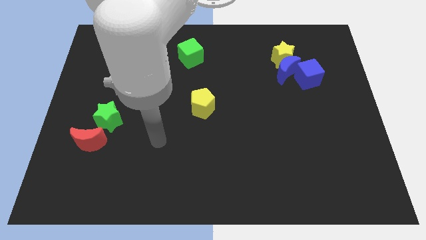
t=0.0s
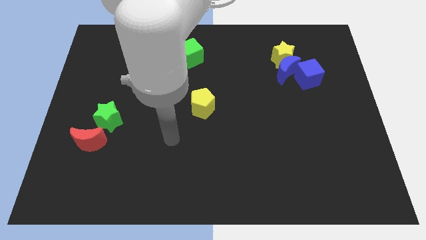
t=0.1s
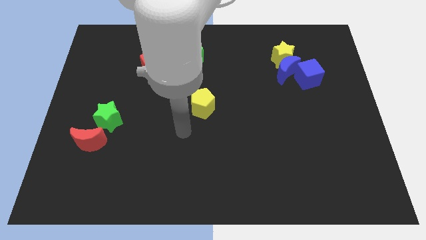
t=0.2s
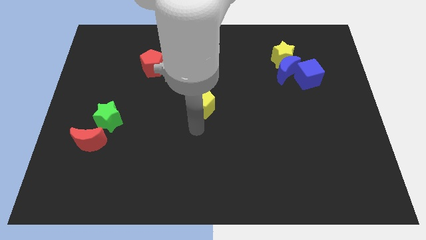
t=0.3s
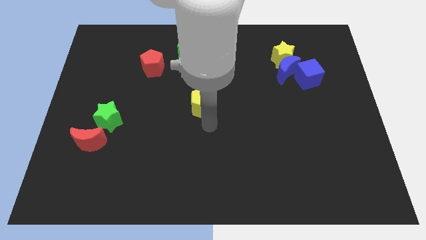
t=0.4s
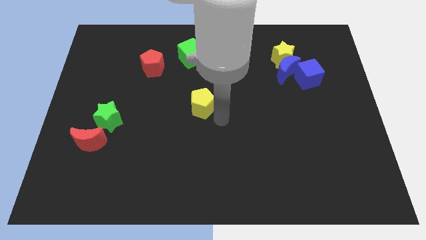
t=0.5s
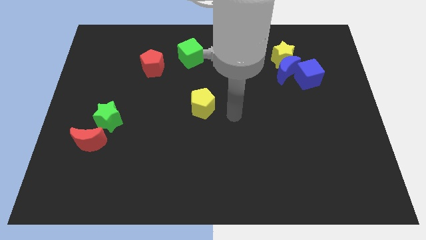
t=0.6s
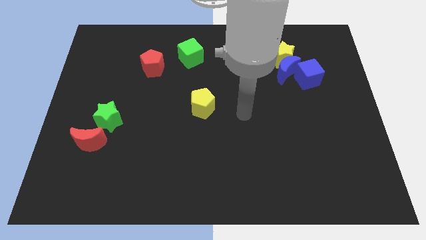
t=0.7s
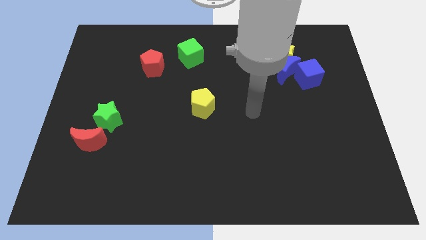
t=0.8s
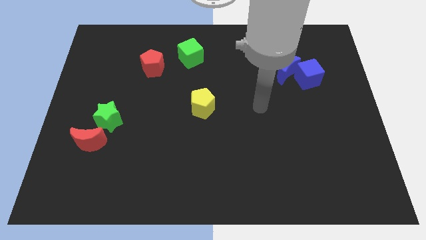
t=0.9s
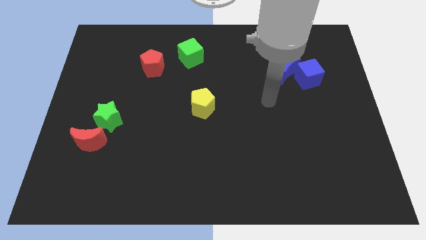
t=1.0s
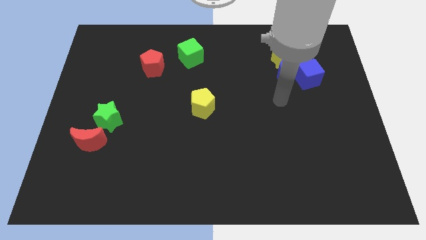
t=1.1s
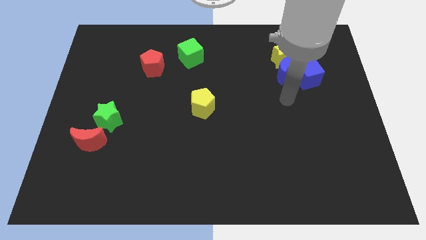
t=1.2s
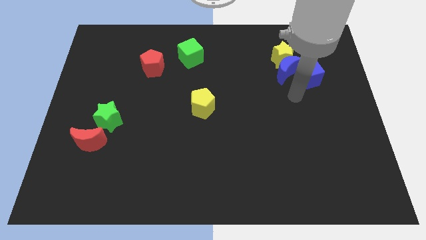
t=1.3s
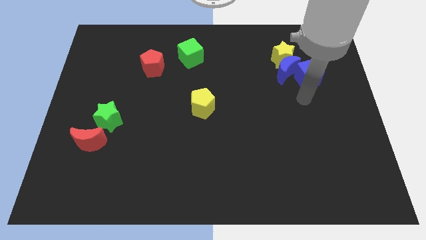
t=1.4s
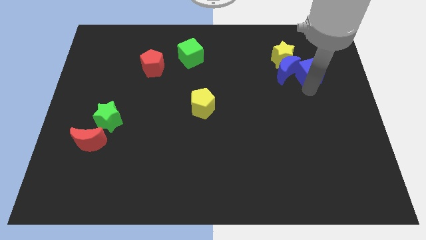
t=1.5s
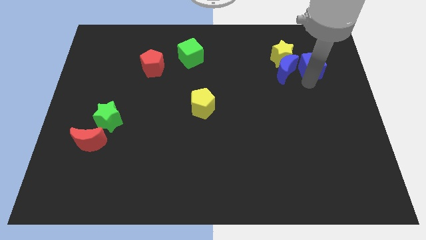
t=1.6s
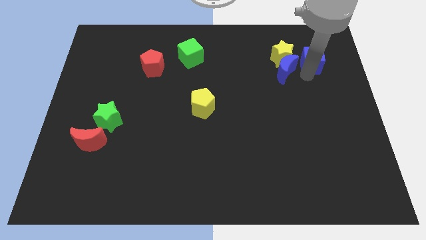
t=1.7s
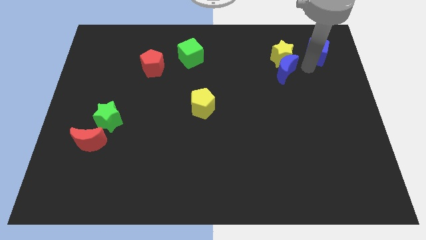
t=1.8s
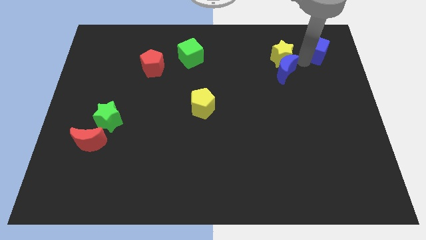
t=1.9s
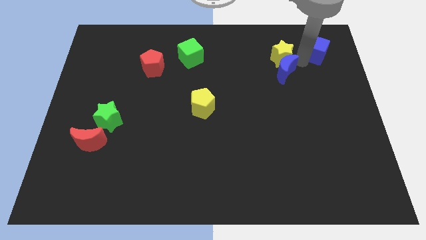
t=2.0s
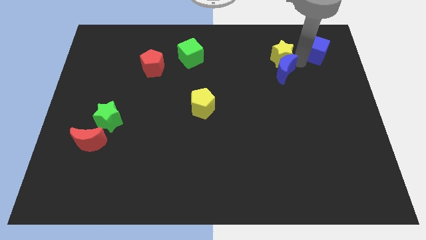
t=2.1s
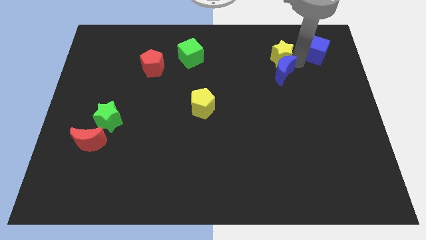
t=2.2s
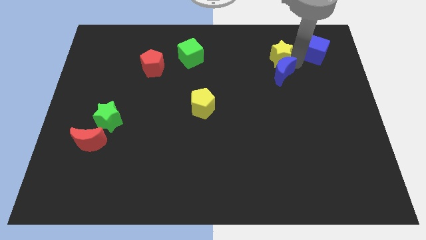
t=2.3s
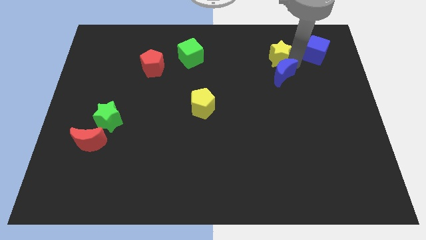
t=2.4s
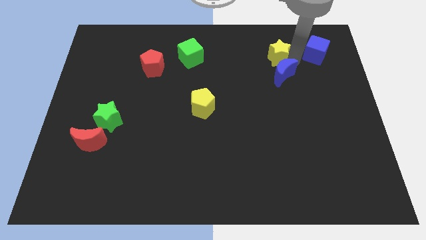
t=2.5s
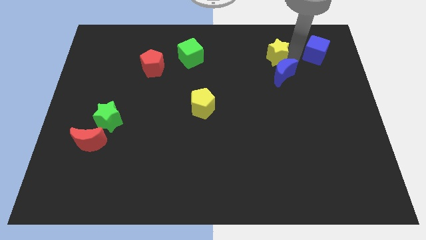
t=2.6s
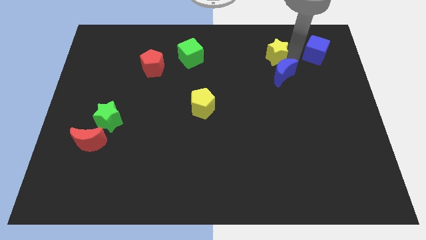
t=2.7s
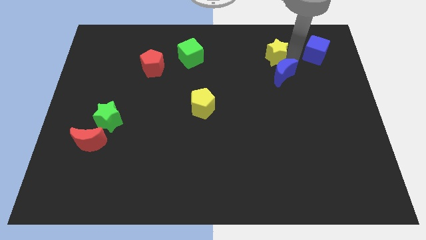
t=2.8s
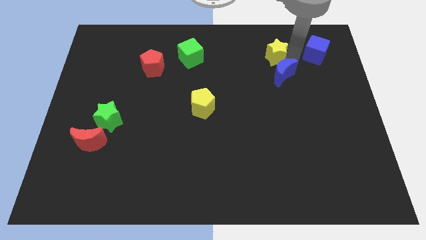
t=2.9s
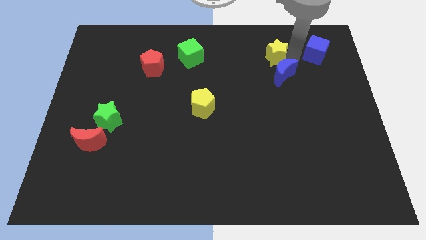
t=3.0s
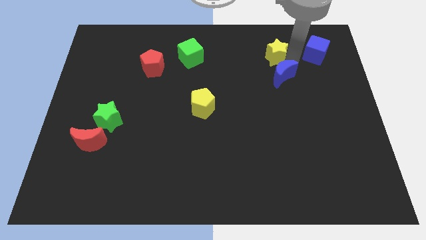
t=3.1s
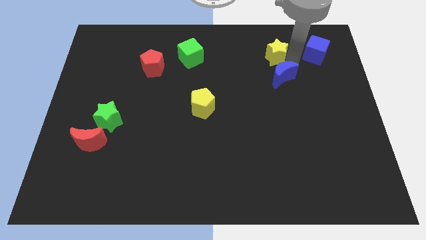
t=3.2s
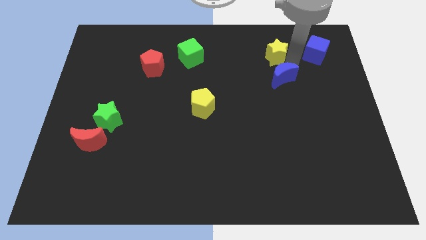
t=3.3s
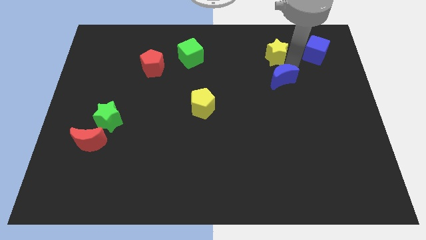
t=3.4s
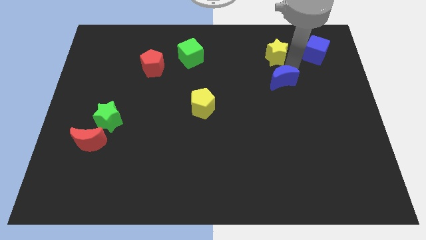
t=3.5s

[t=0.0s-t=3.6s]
move the blue moon away from the yellow star and blue cube

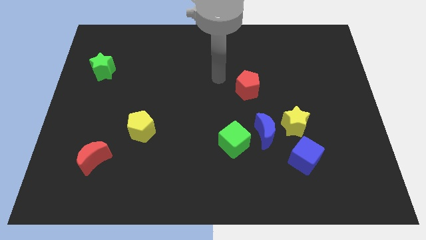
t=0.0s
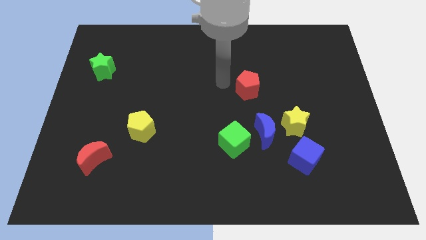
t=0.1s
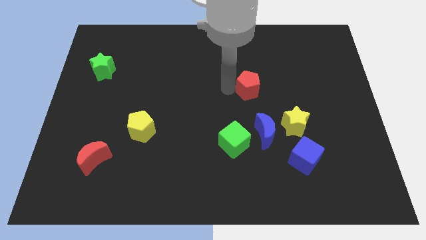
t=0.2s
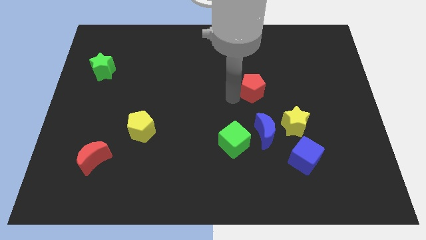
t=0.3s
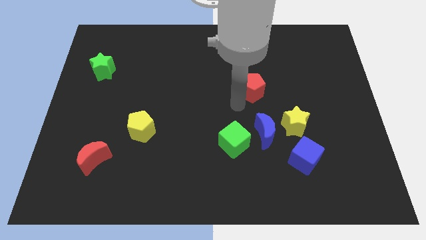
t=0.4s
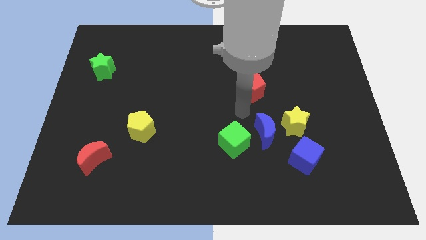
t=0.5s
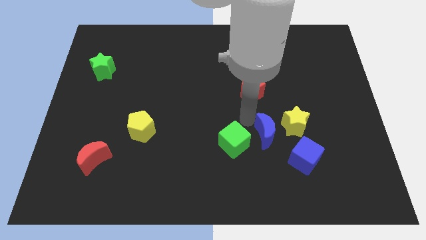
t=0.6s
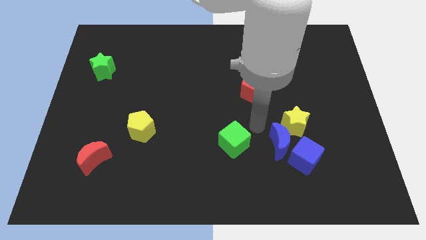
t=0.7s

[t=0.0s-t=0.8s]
move the green cube away from the blue moon

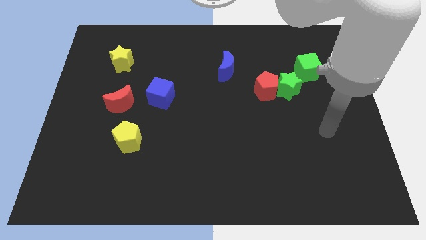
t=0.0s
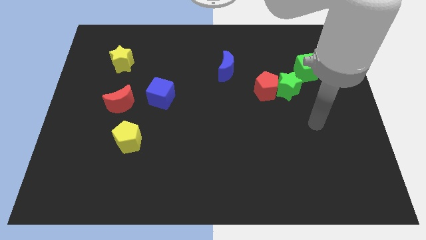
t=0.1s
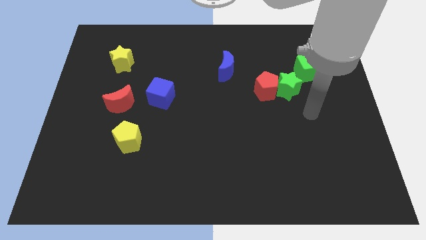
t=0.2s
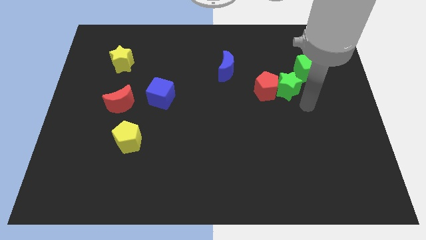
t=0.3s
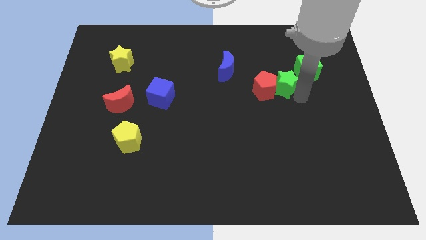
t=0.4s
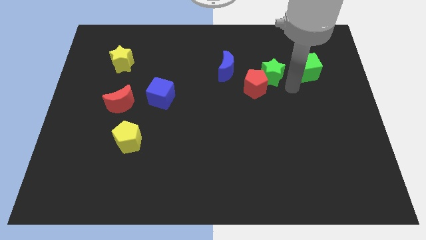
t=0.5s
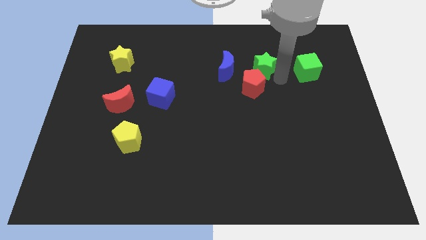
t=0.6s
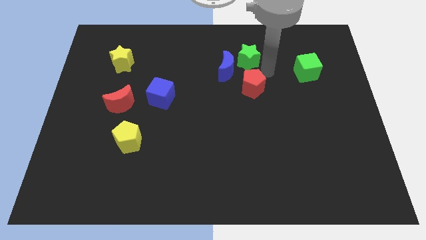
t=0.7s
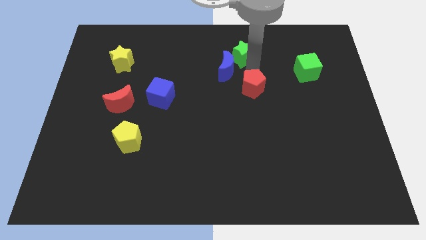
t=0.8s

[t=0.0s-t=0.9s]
move the red pentagon away from the green star

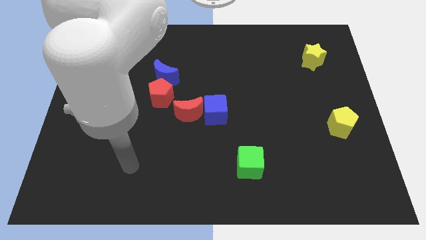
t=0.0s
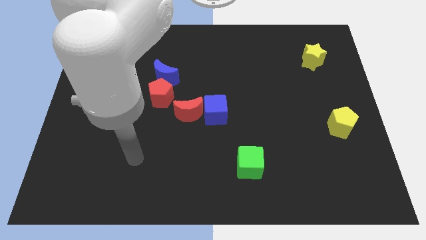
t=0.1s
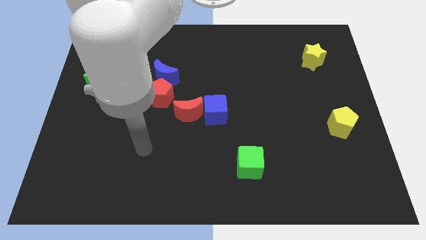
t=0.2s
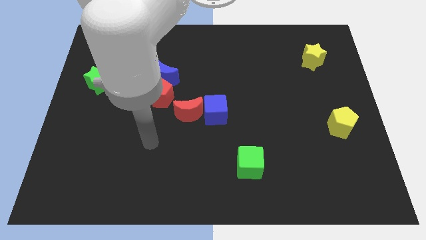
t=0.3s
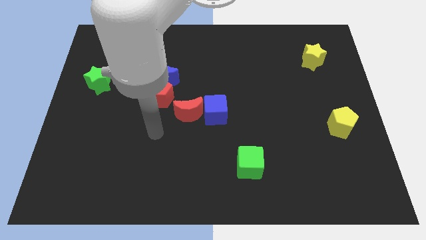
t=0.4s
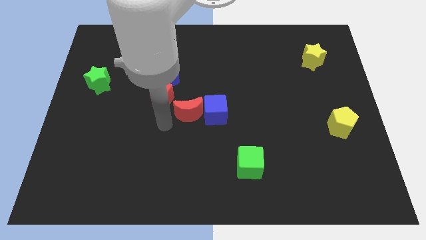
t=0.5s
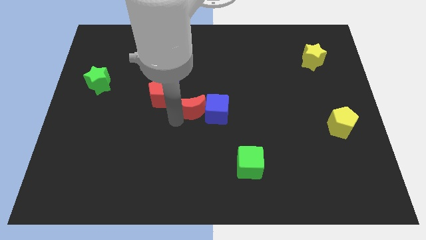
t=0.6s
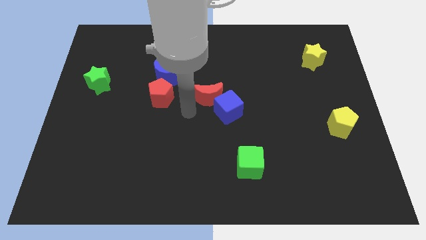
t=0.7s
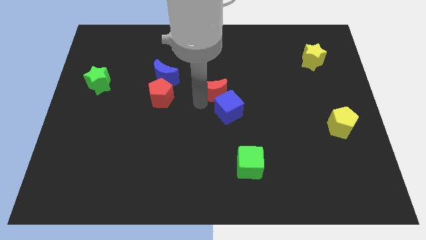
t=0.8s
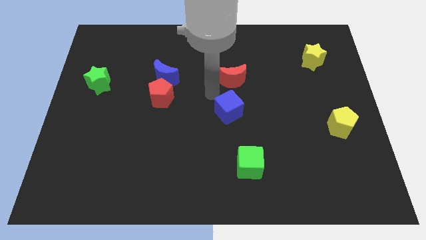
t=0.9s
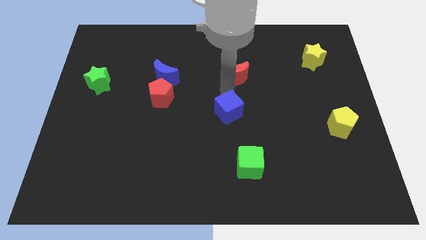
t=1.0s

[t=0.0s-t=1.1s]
separate the blue cube from the red moon

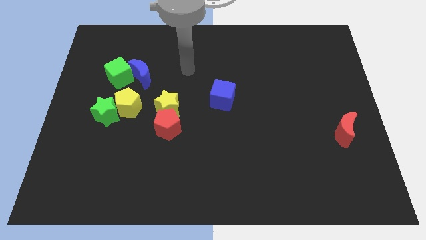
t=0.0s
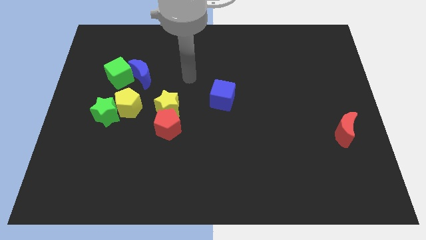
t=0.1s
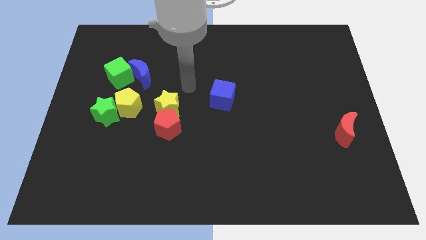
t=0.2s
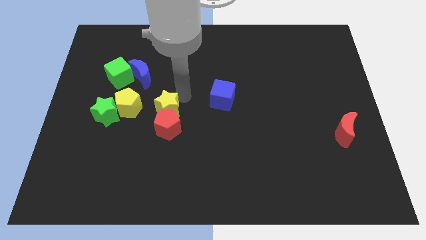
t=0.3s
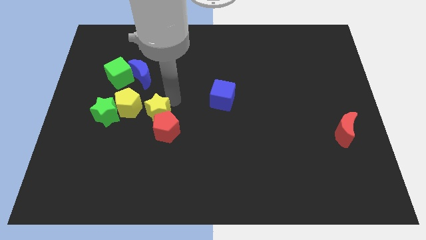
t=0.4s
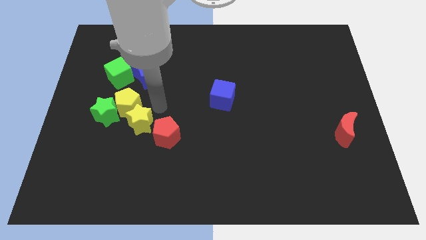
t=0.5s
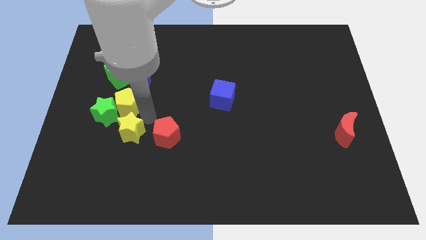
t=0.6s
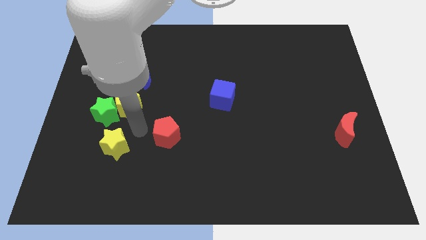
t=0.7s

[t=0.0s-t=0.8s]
move the red pentagon away from the yellow star

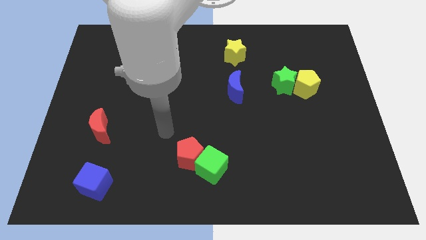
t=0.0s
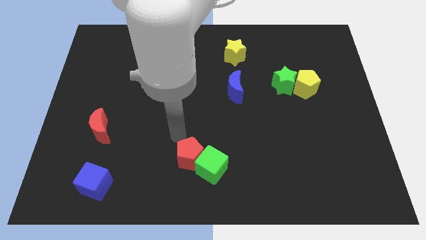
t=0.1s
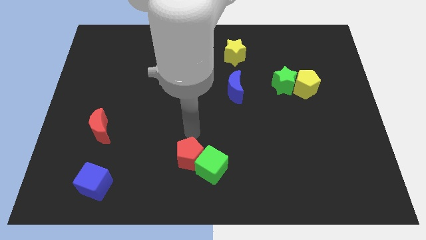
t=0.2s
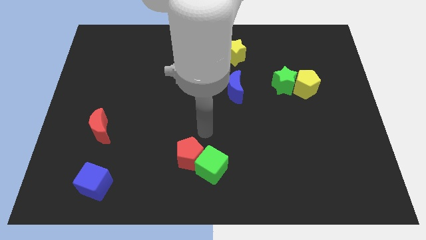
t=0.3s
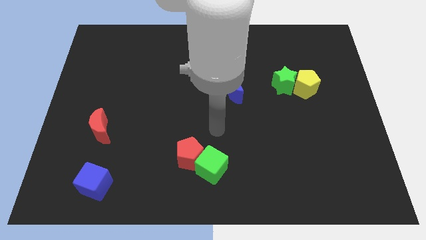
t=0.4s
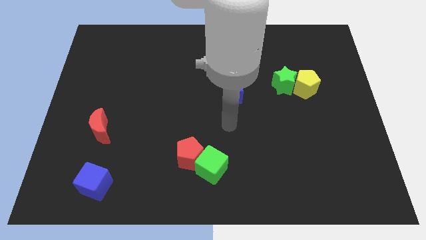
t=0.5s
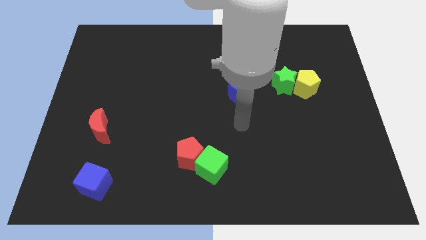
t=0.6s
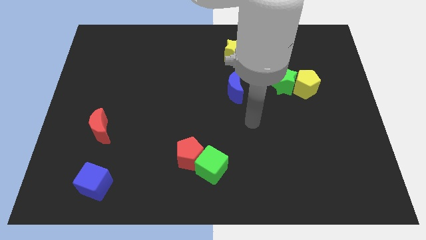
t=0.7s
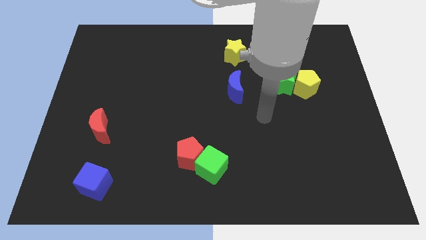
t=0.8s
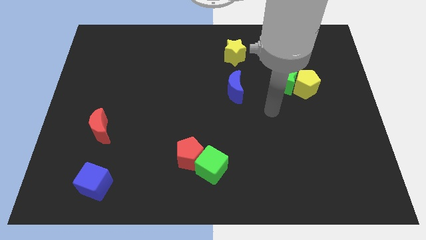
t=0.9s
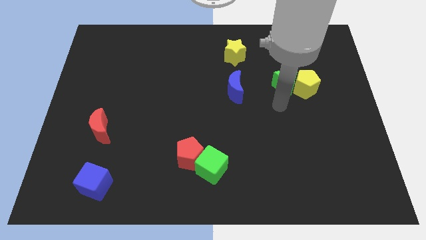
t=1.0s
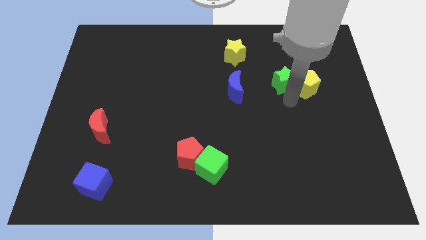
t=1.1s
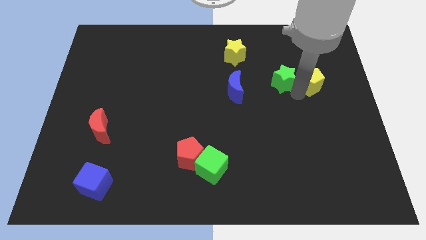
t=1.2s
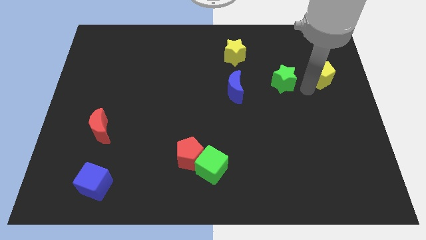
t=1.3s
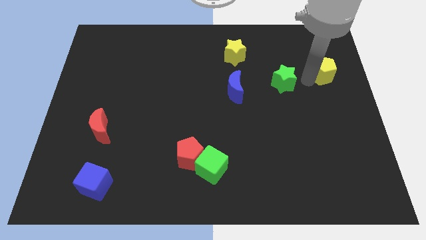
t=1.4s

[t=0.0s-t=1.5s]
separate the green star from the yellow pentagon

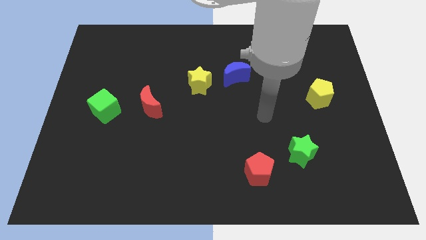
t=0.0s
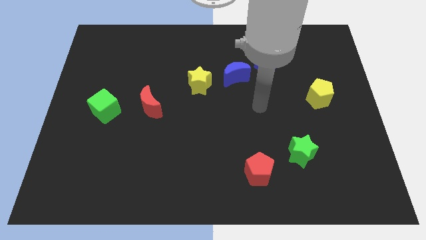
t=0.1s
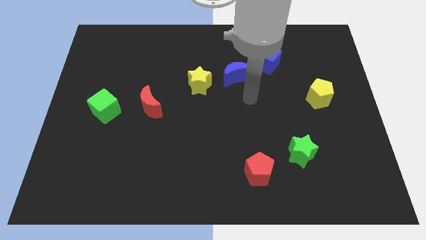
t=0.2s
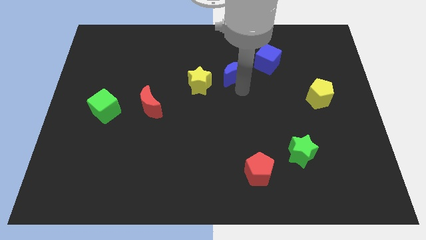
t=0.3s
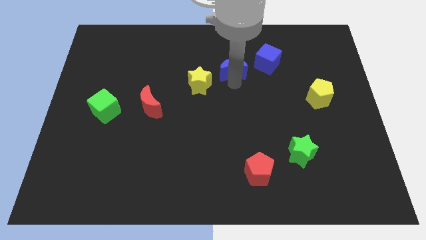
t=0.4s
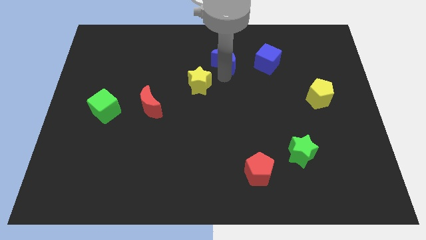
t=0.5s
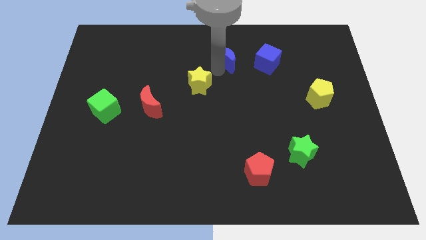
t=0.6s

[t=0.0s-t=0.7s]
pull the yellow star apart from the blue moon

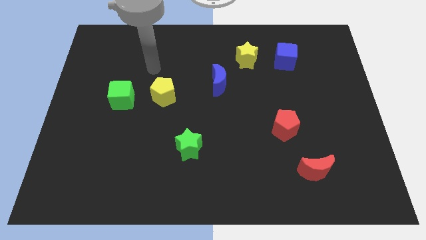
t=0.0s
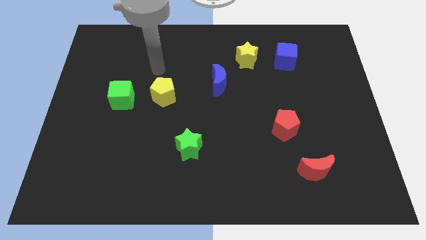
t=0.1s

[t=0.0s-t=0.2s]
separate the blue cube from the yellow star
